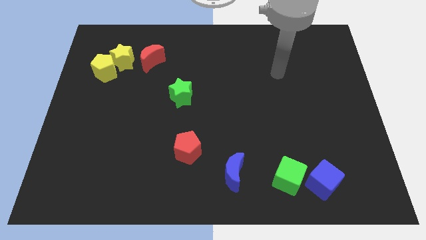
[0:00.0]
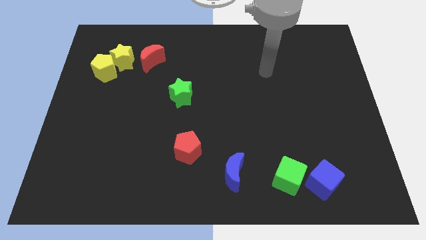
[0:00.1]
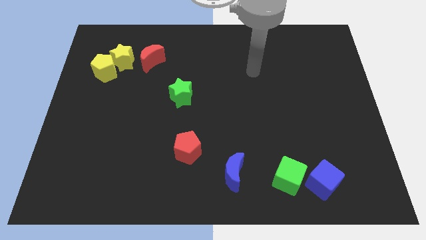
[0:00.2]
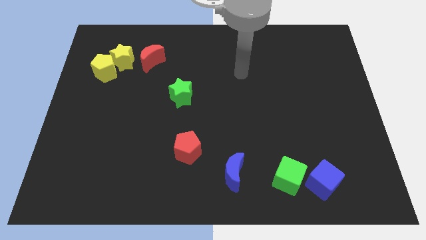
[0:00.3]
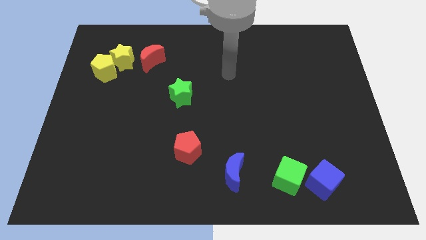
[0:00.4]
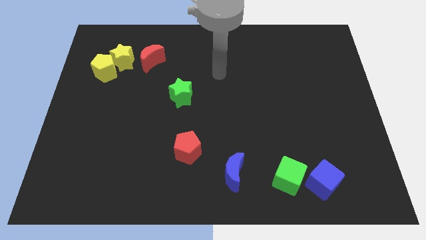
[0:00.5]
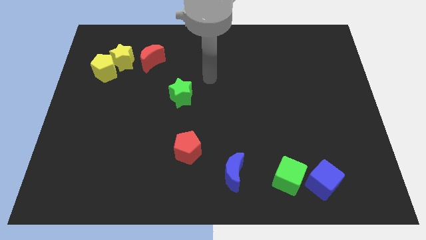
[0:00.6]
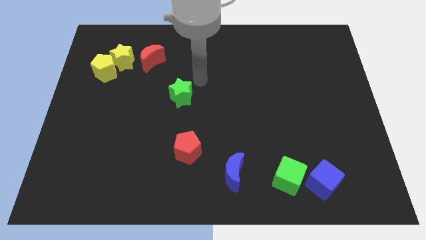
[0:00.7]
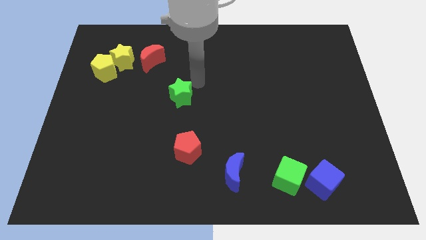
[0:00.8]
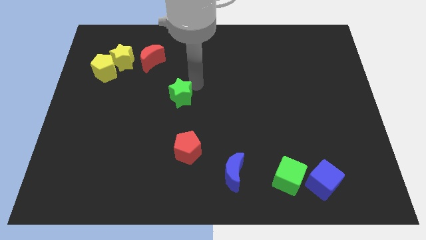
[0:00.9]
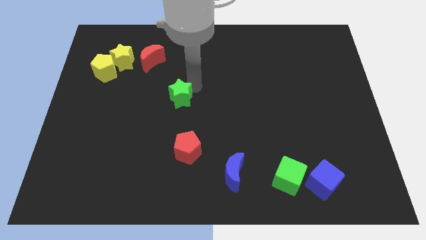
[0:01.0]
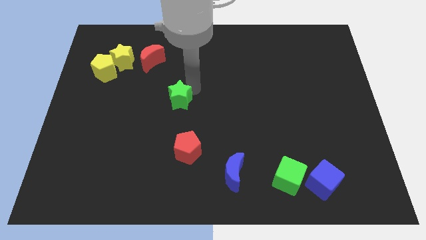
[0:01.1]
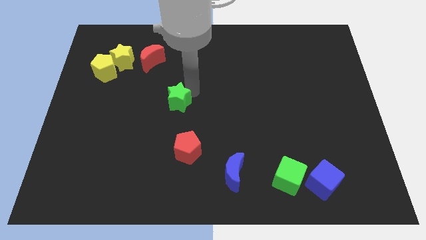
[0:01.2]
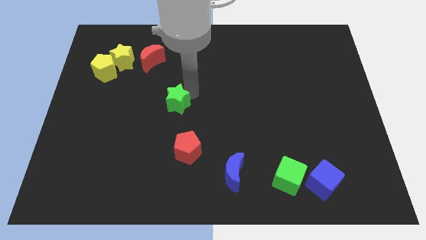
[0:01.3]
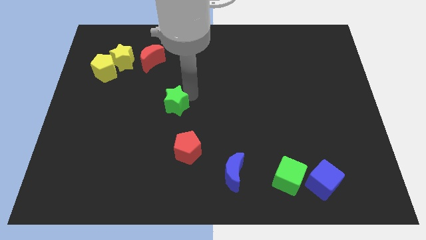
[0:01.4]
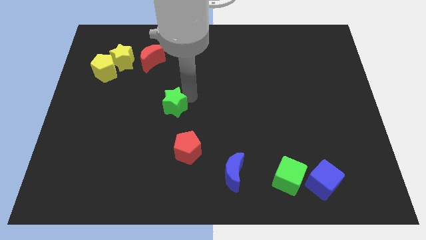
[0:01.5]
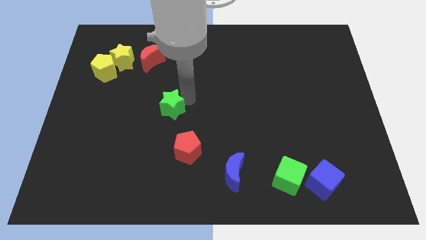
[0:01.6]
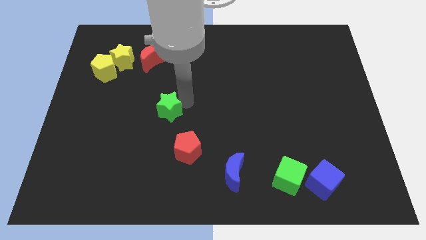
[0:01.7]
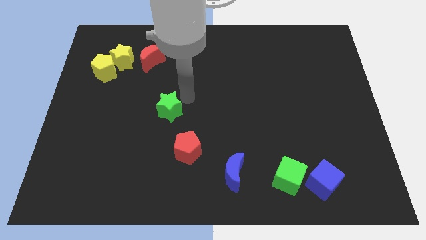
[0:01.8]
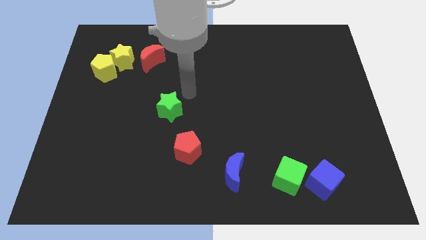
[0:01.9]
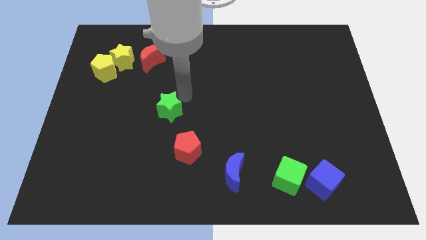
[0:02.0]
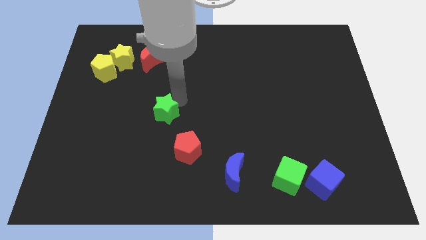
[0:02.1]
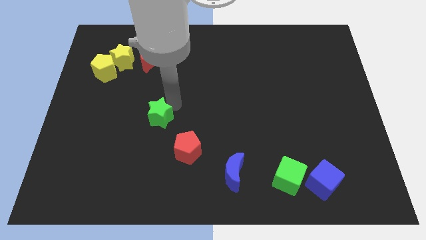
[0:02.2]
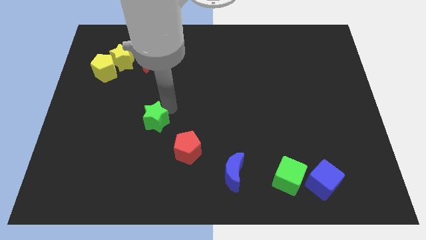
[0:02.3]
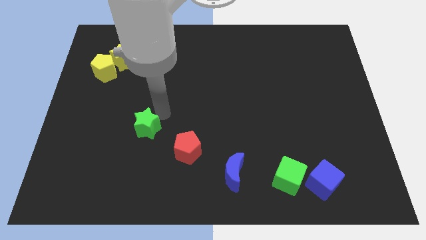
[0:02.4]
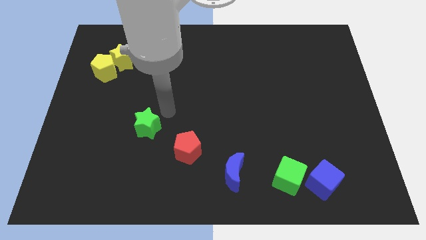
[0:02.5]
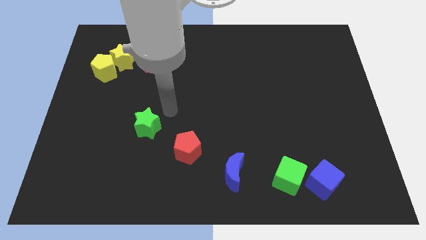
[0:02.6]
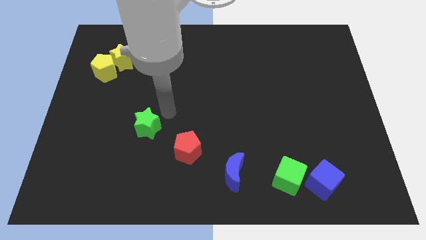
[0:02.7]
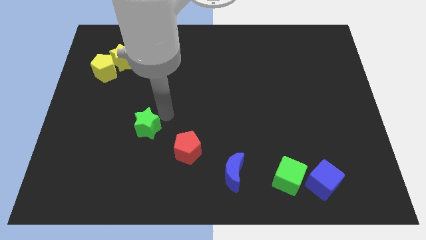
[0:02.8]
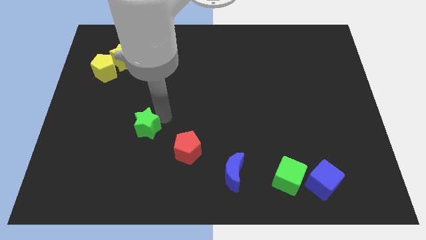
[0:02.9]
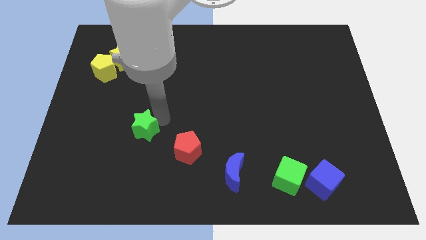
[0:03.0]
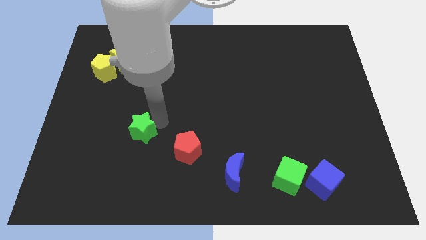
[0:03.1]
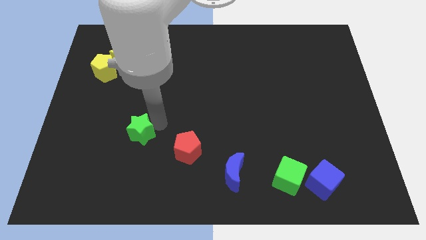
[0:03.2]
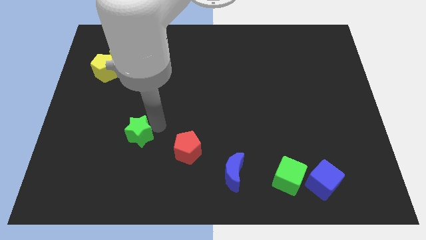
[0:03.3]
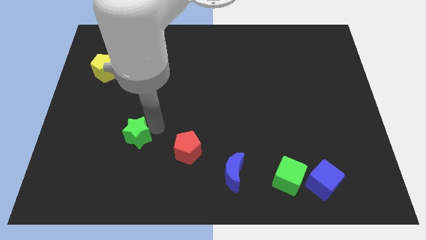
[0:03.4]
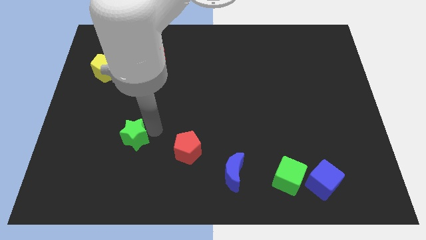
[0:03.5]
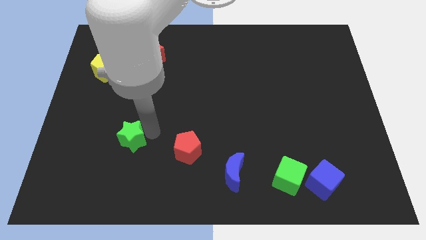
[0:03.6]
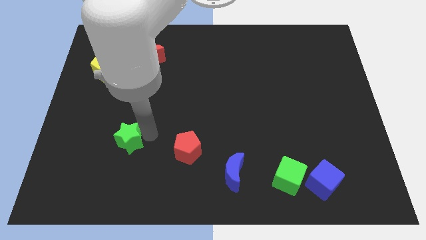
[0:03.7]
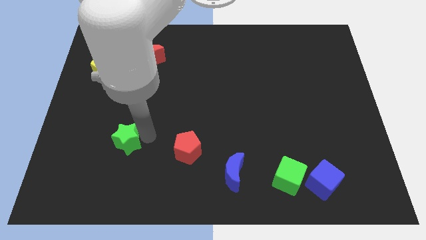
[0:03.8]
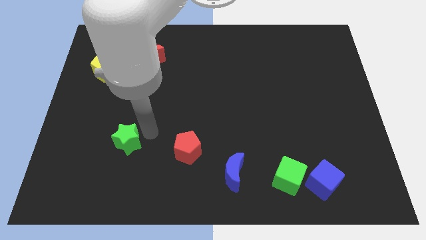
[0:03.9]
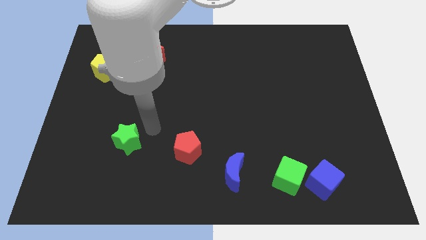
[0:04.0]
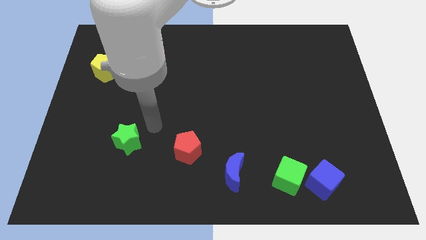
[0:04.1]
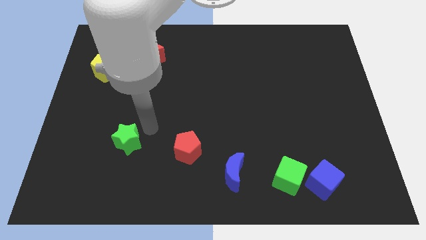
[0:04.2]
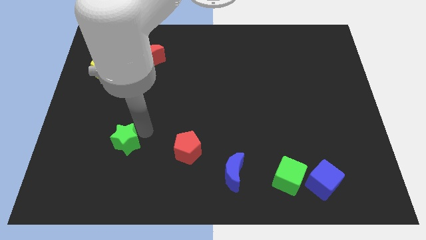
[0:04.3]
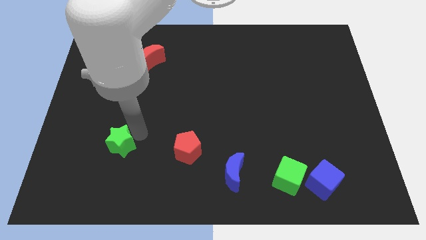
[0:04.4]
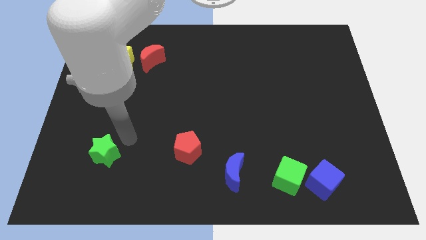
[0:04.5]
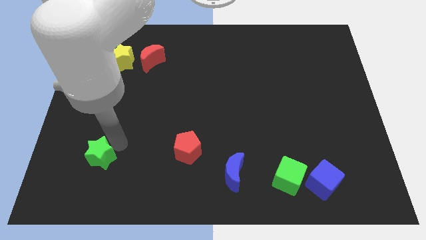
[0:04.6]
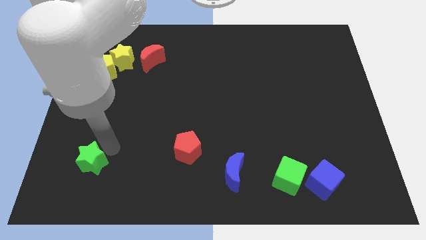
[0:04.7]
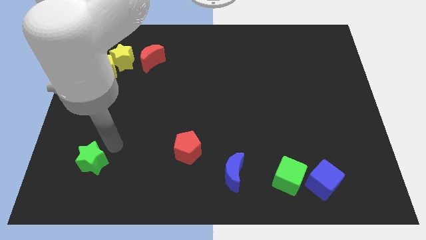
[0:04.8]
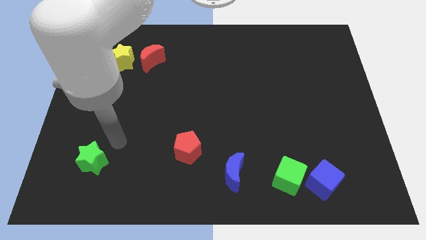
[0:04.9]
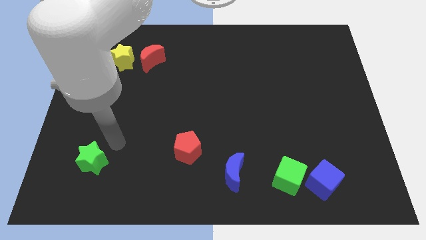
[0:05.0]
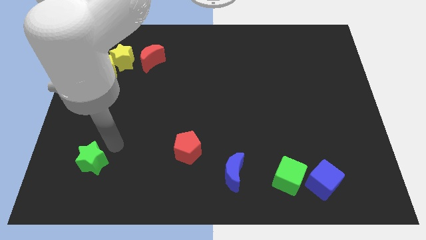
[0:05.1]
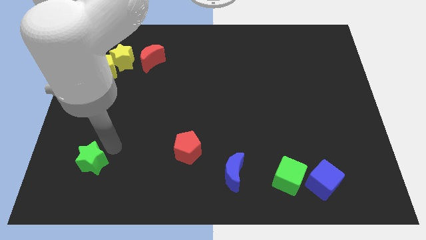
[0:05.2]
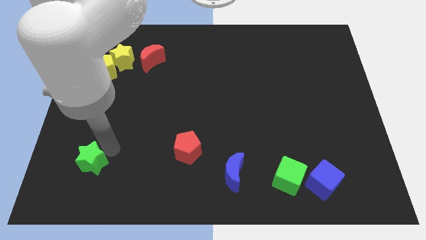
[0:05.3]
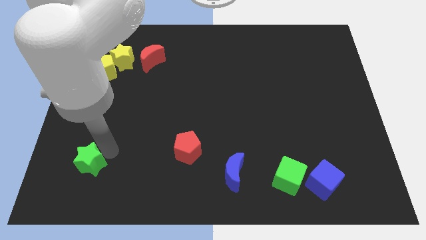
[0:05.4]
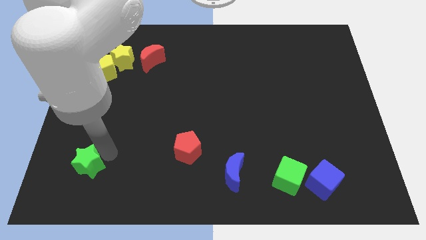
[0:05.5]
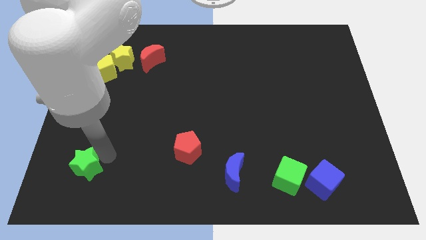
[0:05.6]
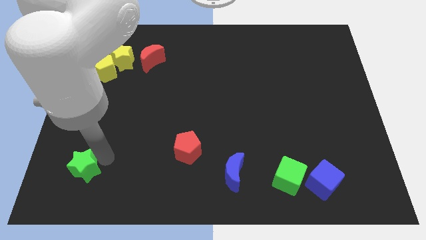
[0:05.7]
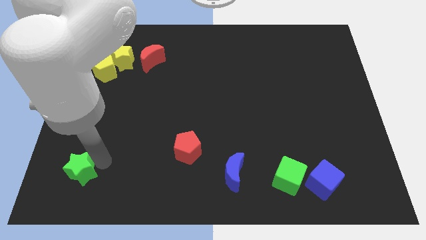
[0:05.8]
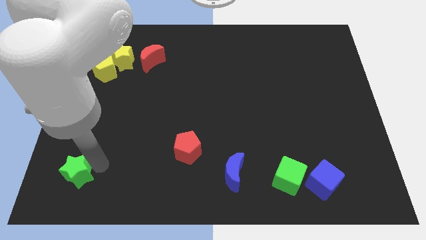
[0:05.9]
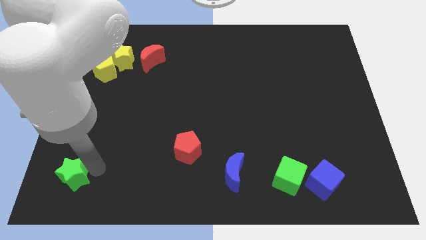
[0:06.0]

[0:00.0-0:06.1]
slide the green star to the bottom left of the board

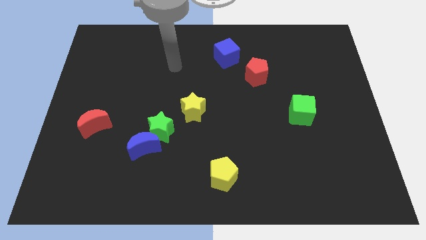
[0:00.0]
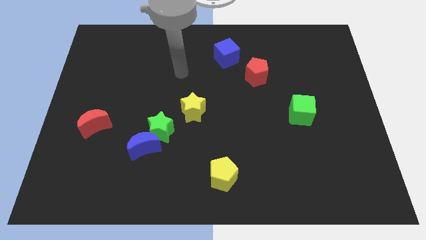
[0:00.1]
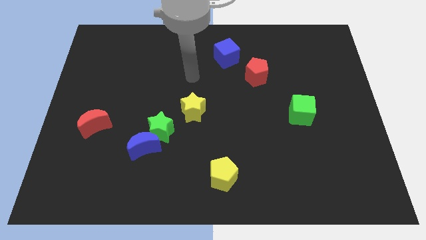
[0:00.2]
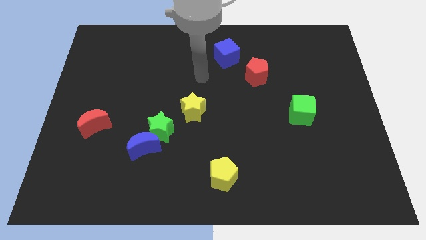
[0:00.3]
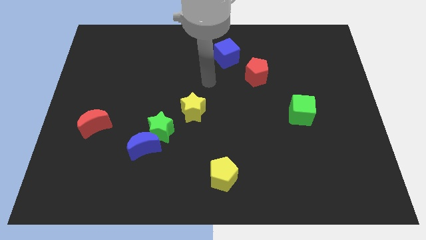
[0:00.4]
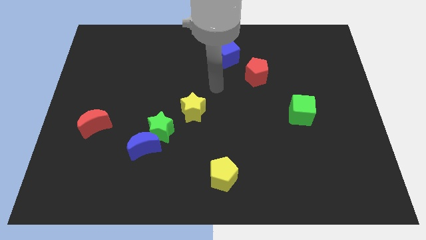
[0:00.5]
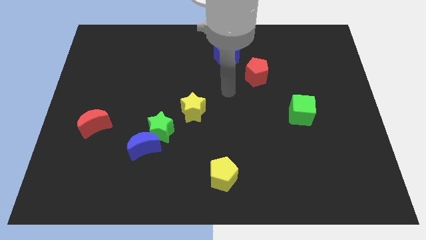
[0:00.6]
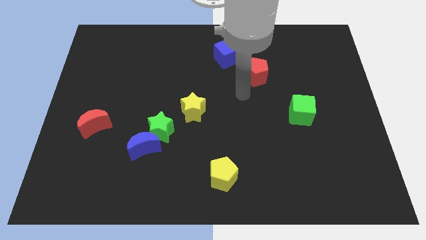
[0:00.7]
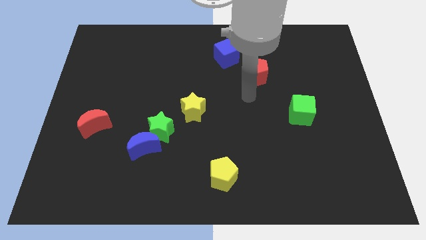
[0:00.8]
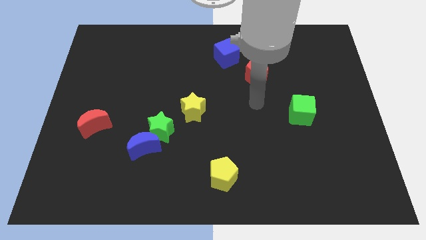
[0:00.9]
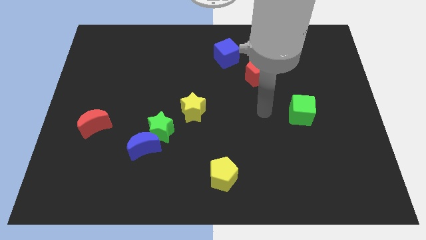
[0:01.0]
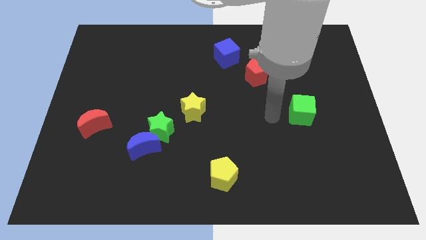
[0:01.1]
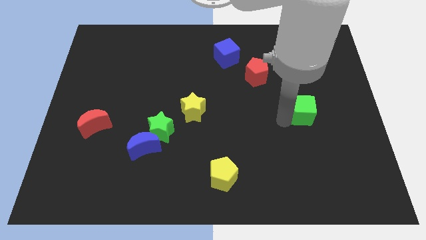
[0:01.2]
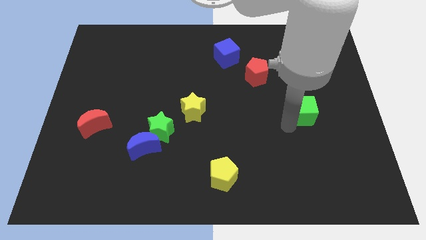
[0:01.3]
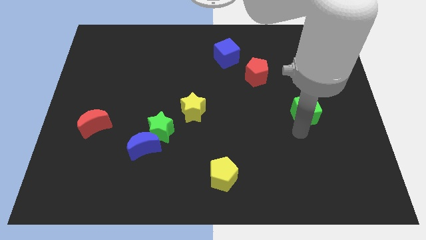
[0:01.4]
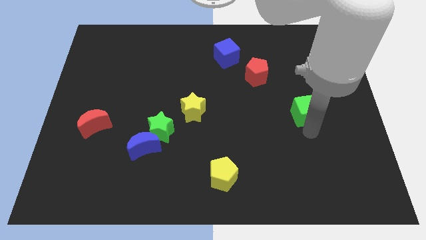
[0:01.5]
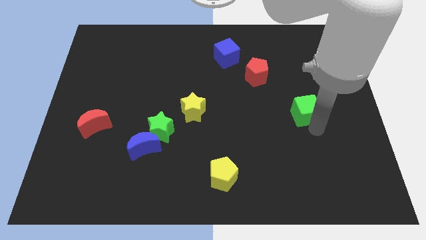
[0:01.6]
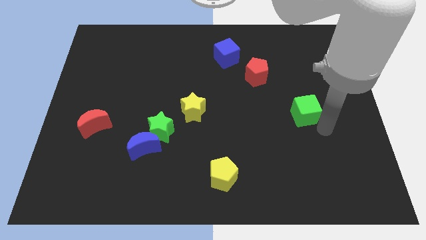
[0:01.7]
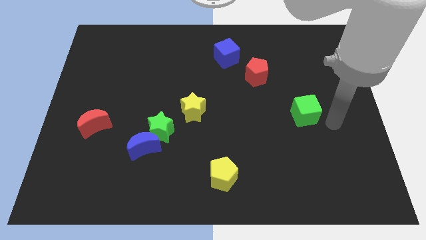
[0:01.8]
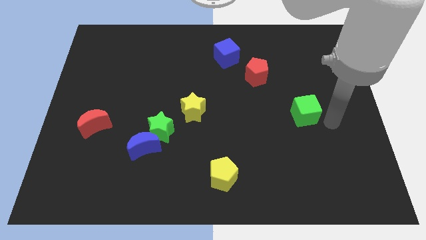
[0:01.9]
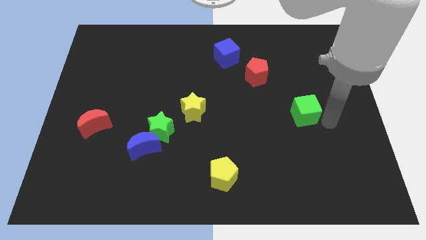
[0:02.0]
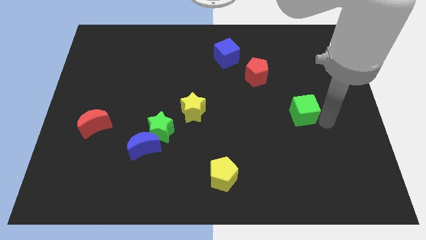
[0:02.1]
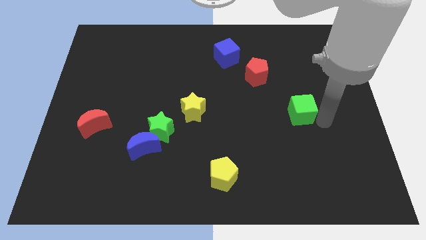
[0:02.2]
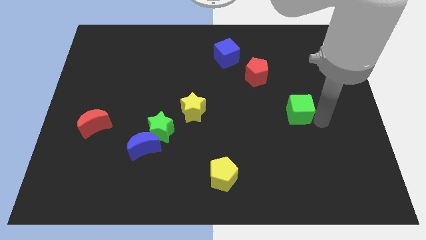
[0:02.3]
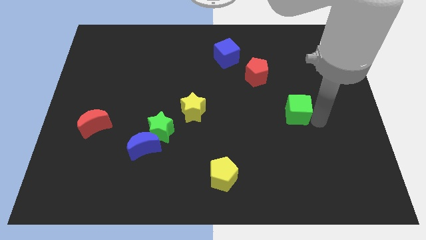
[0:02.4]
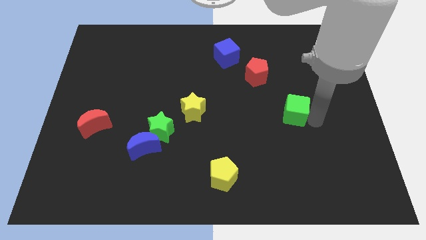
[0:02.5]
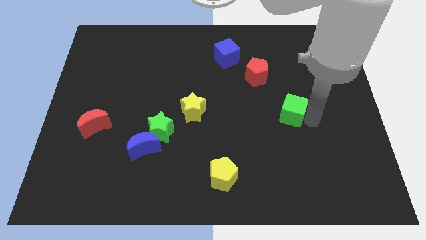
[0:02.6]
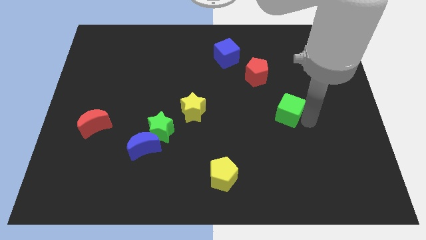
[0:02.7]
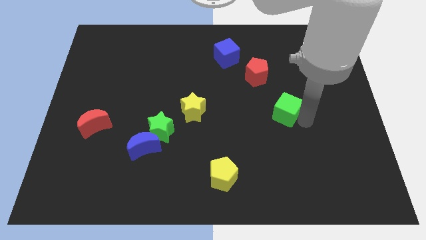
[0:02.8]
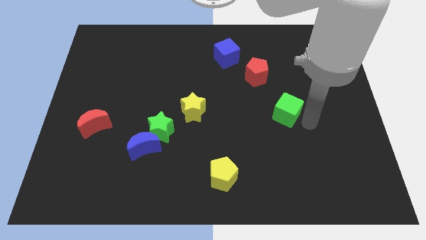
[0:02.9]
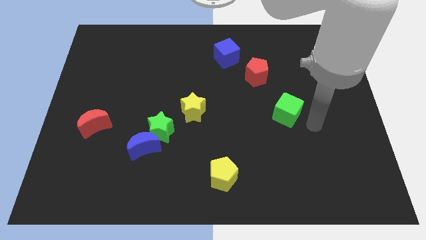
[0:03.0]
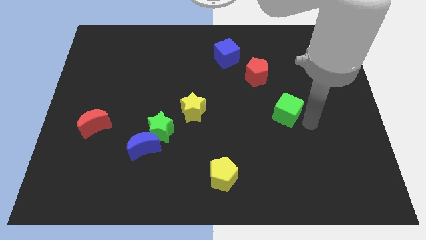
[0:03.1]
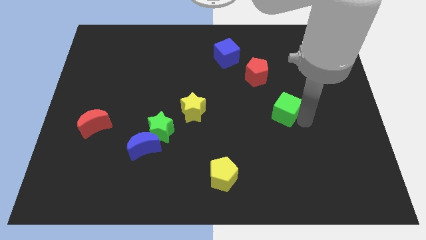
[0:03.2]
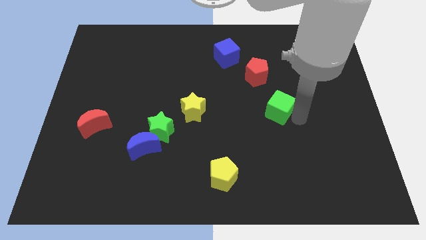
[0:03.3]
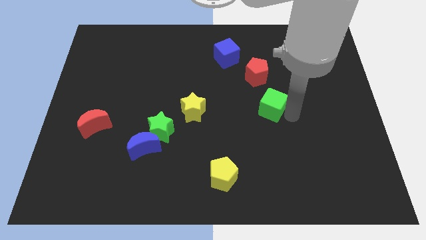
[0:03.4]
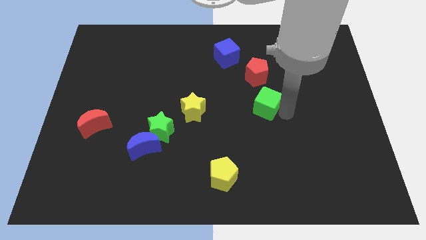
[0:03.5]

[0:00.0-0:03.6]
put the green cube to the center of the board
